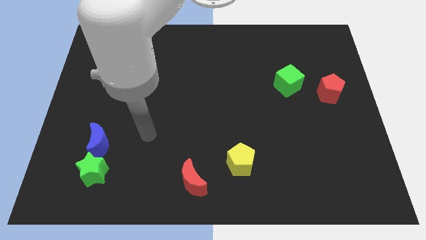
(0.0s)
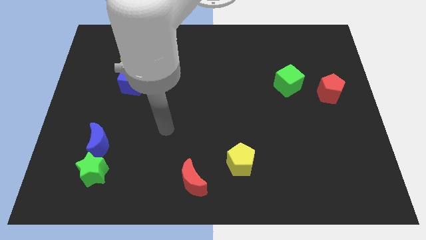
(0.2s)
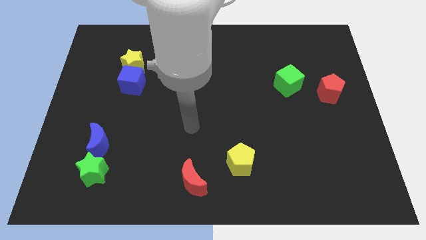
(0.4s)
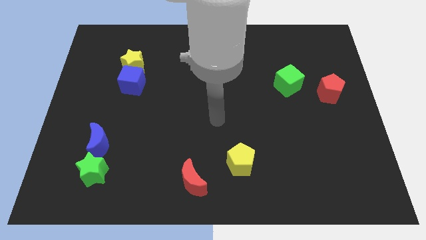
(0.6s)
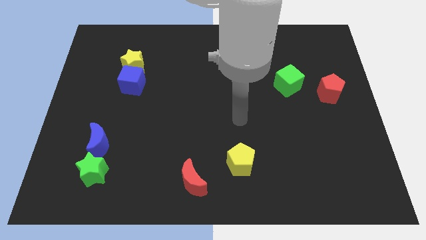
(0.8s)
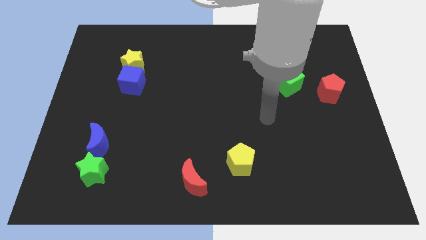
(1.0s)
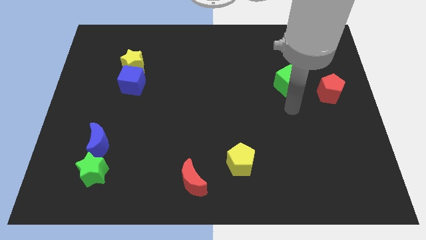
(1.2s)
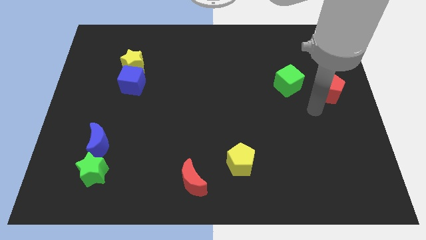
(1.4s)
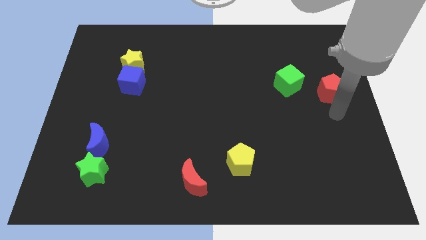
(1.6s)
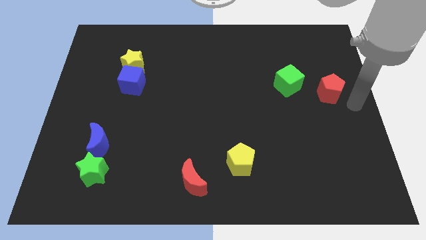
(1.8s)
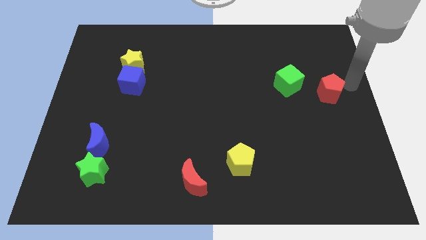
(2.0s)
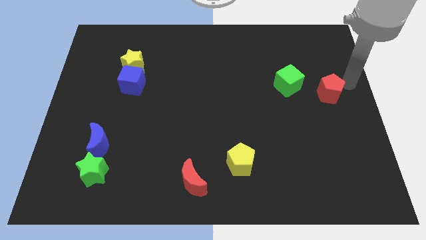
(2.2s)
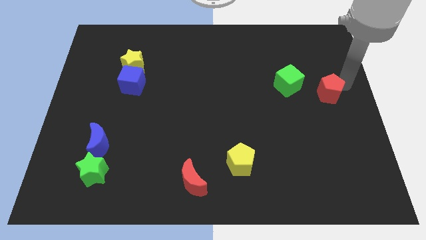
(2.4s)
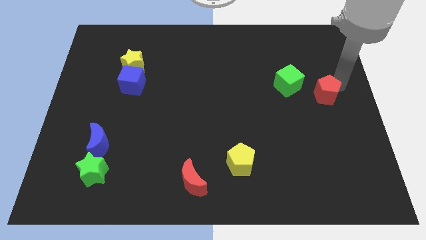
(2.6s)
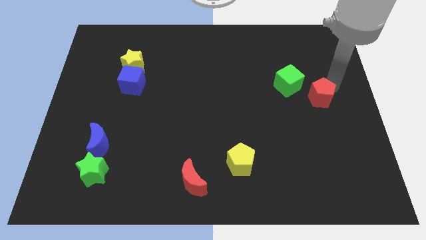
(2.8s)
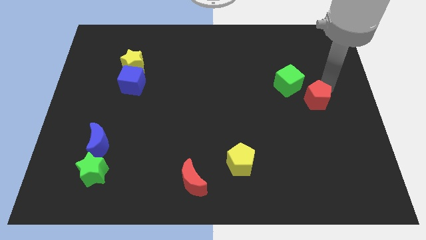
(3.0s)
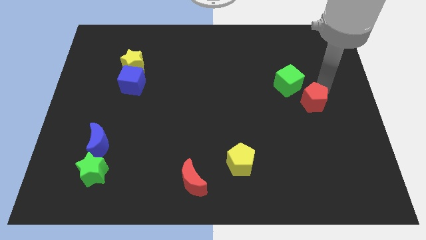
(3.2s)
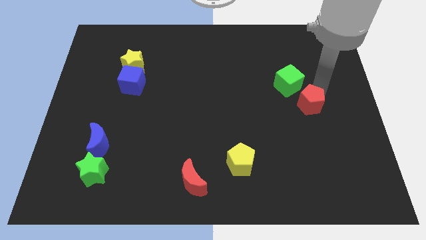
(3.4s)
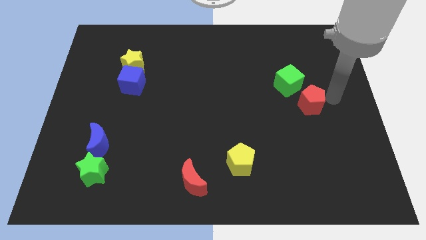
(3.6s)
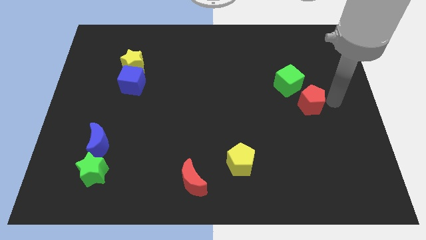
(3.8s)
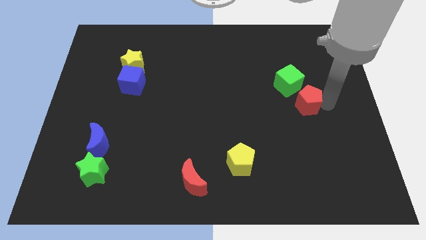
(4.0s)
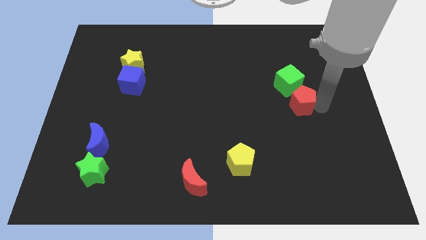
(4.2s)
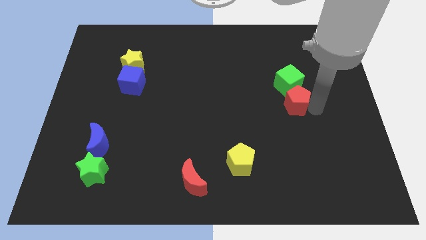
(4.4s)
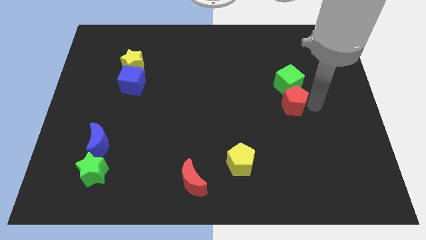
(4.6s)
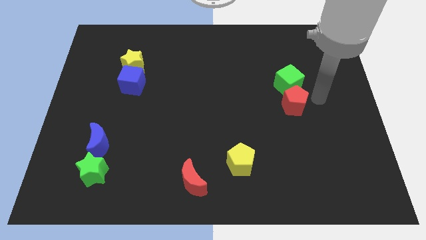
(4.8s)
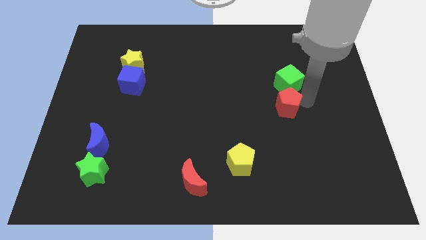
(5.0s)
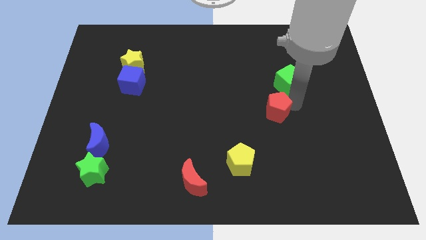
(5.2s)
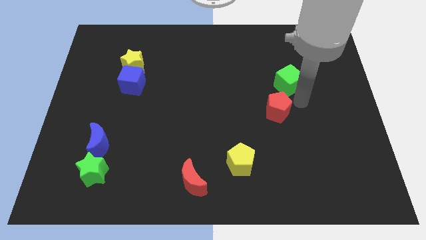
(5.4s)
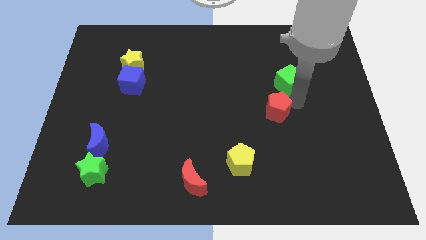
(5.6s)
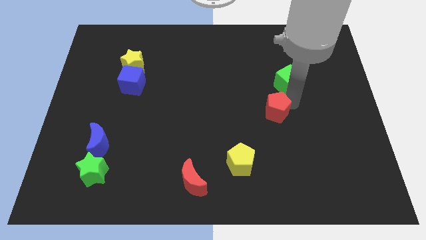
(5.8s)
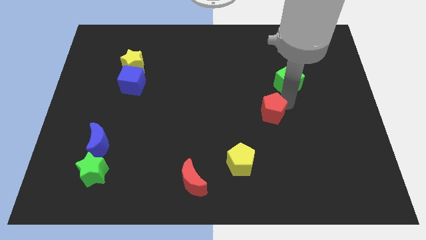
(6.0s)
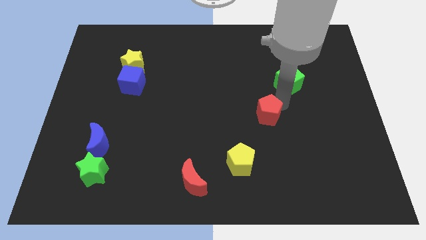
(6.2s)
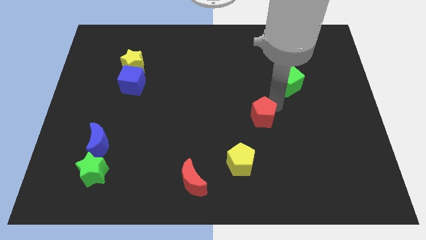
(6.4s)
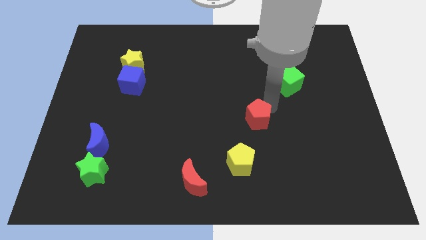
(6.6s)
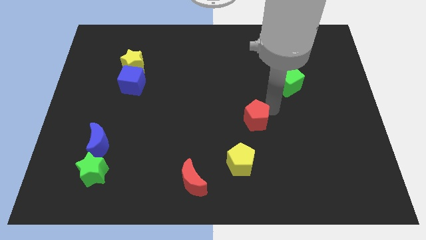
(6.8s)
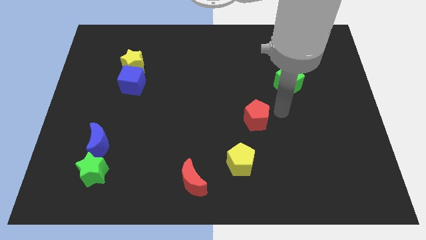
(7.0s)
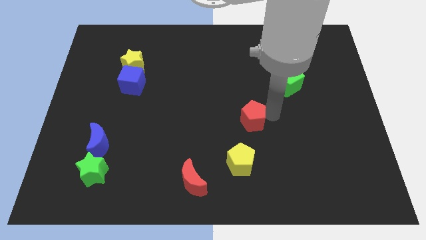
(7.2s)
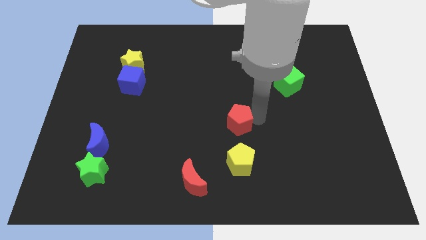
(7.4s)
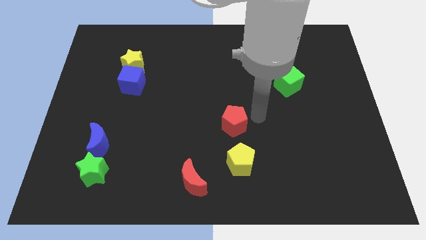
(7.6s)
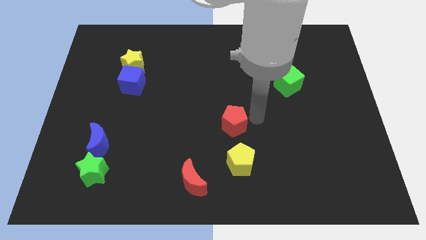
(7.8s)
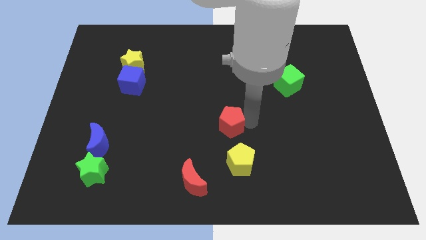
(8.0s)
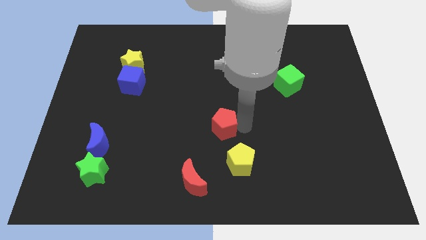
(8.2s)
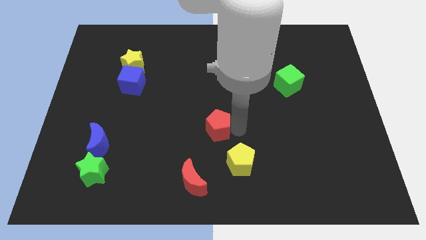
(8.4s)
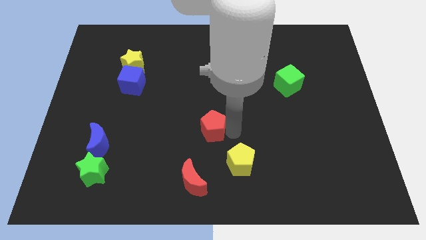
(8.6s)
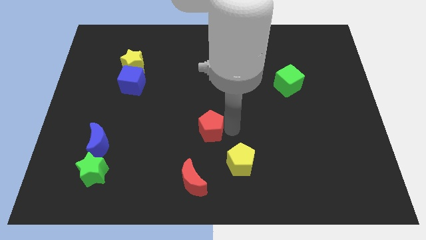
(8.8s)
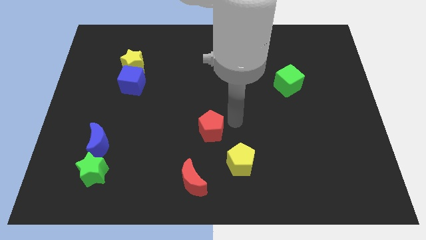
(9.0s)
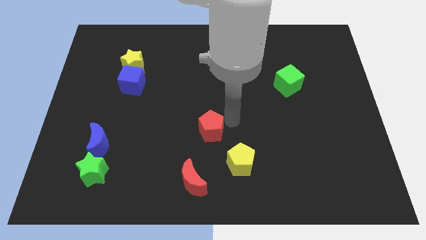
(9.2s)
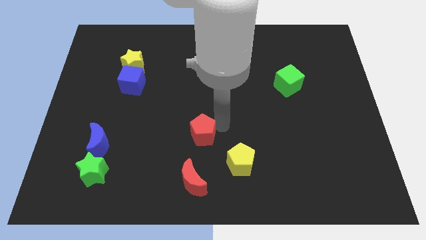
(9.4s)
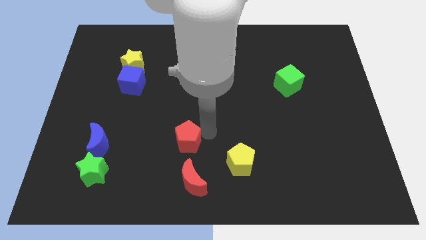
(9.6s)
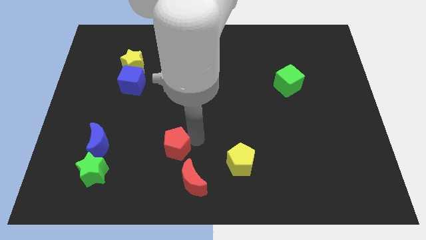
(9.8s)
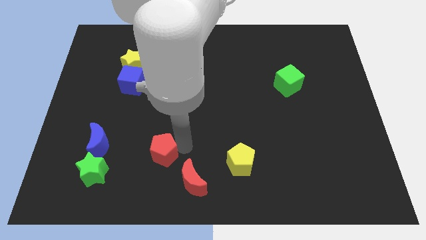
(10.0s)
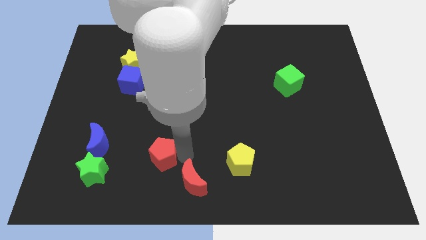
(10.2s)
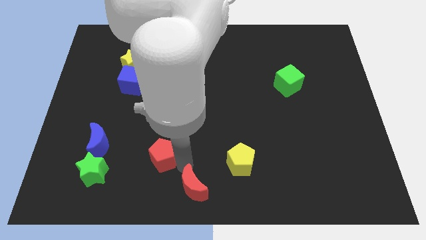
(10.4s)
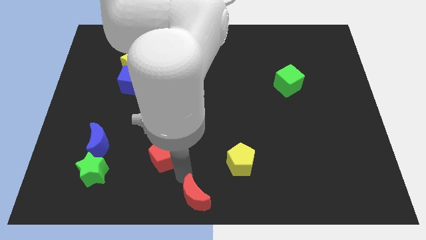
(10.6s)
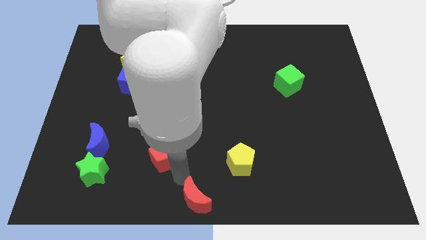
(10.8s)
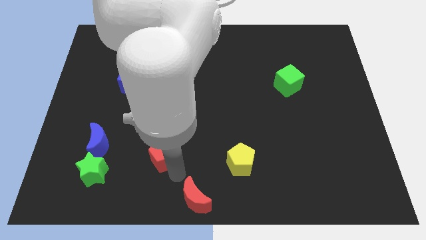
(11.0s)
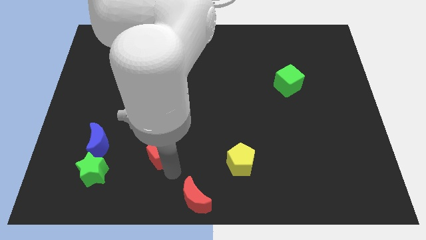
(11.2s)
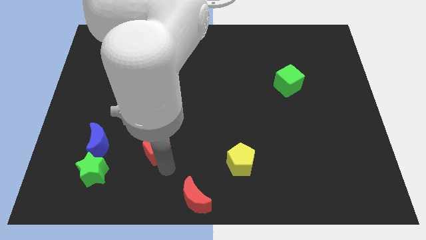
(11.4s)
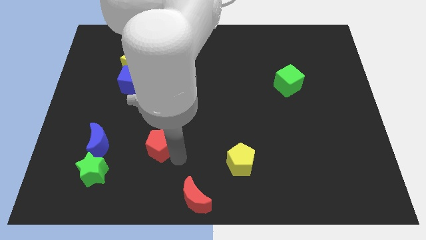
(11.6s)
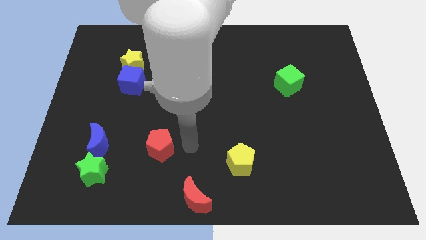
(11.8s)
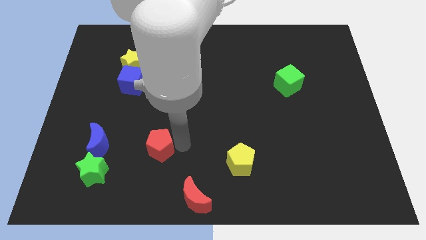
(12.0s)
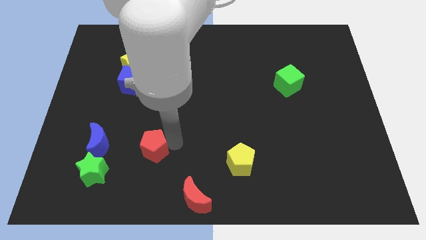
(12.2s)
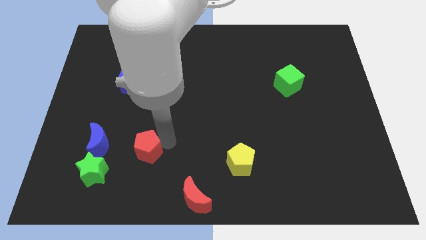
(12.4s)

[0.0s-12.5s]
move the red pentagon diagonally up and to the right of the green star

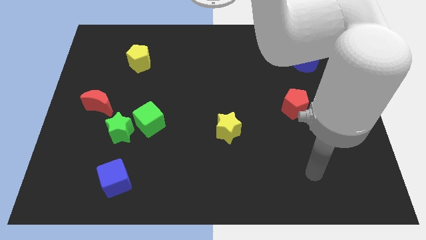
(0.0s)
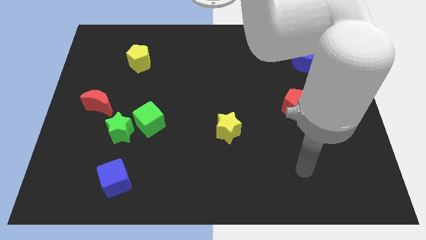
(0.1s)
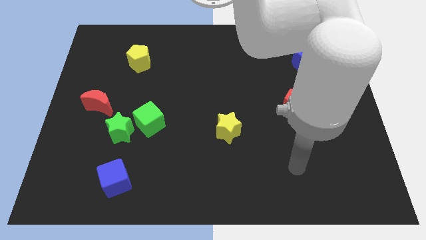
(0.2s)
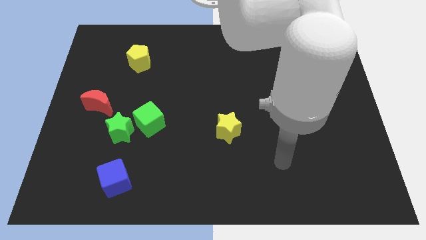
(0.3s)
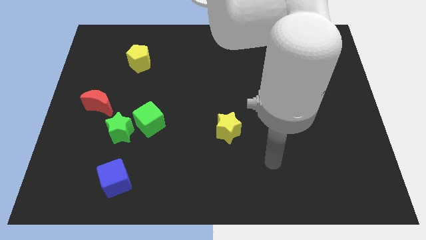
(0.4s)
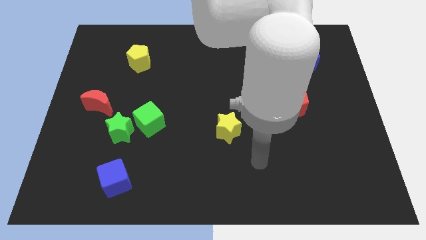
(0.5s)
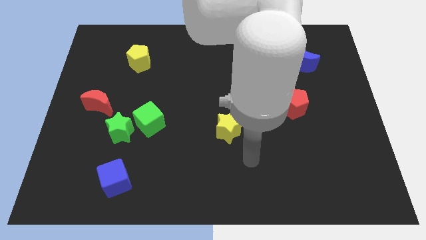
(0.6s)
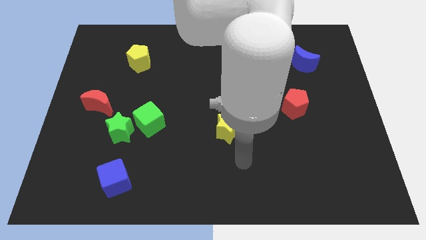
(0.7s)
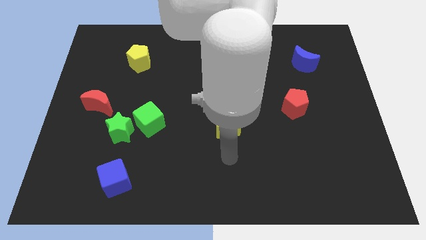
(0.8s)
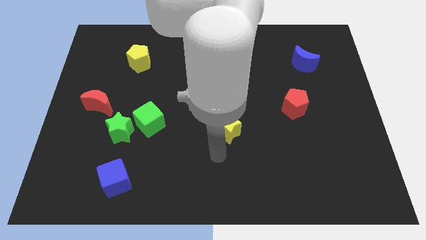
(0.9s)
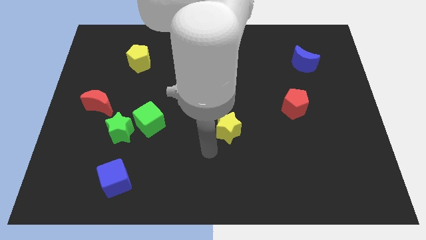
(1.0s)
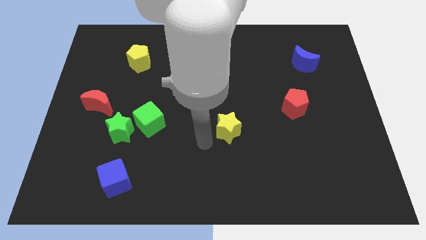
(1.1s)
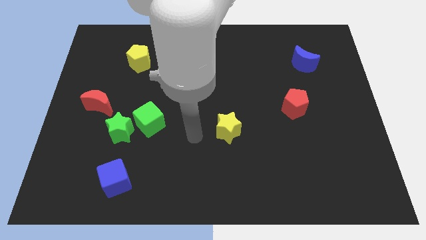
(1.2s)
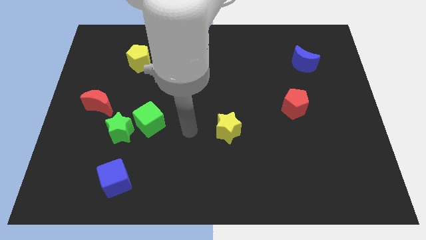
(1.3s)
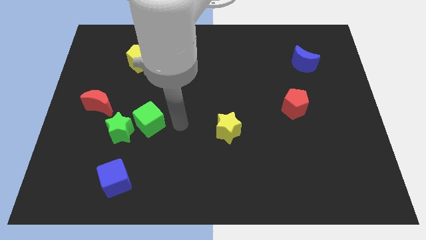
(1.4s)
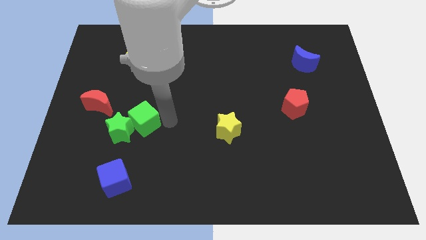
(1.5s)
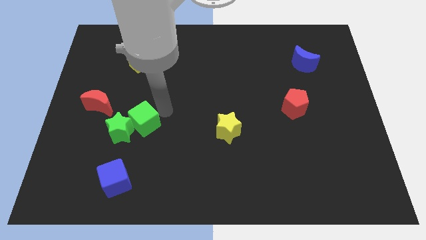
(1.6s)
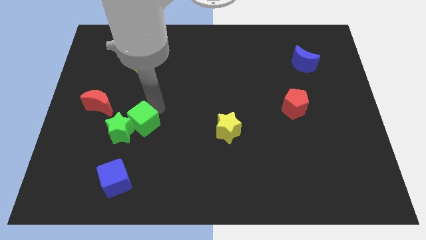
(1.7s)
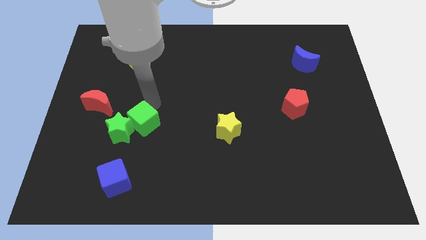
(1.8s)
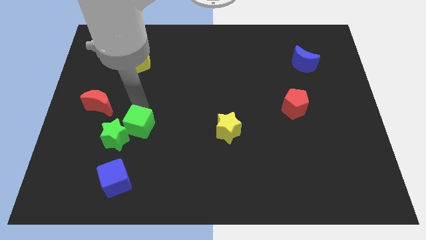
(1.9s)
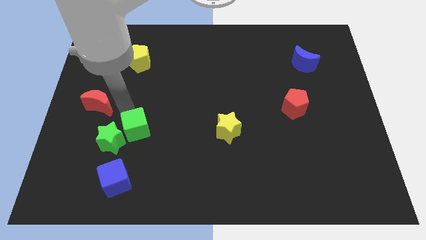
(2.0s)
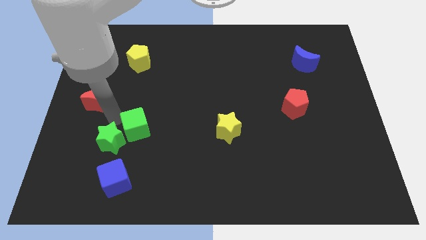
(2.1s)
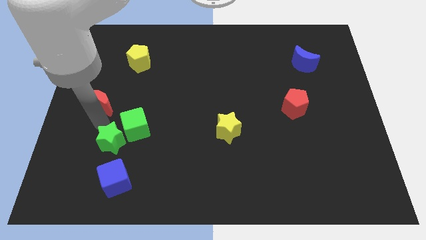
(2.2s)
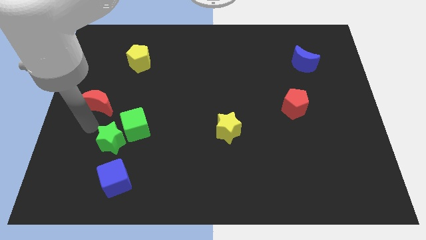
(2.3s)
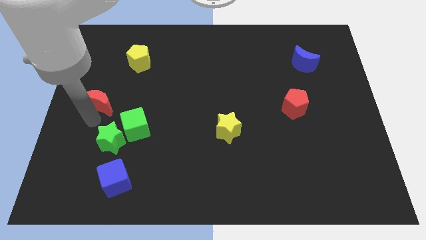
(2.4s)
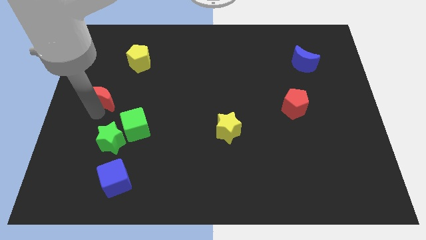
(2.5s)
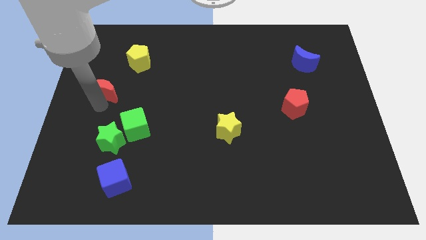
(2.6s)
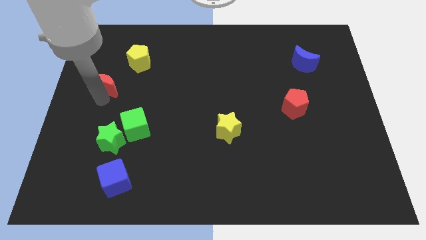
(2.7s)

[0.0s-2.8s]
move the red moon diagonally down and to the left of the yellow pentagon
